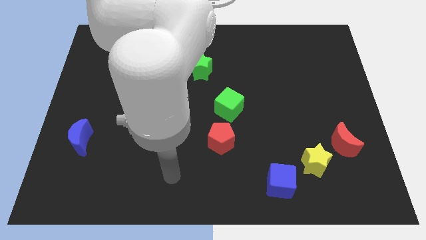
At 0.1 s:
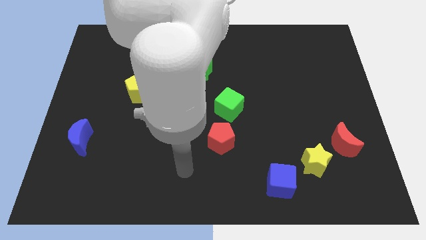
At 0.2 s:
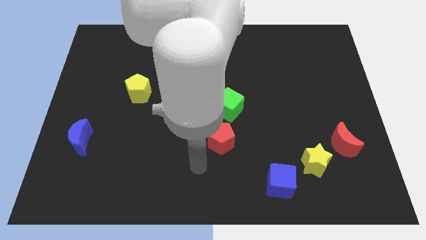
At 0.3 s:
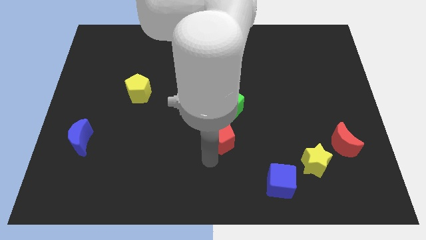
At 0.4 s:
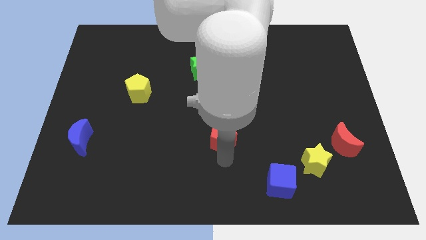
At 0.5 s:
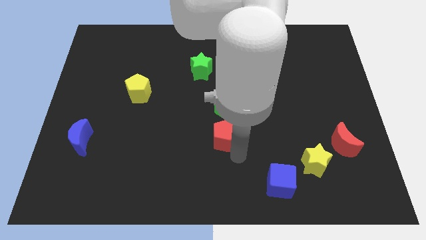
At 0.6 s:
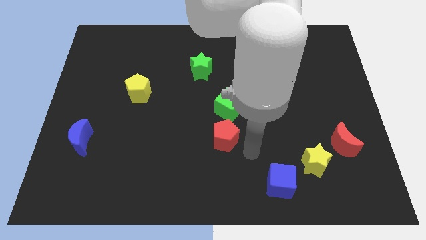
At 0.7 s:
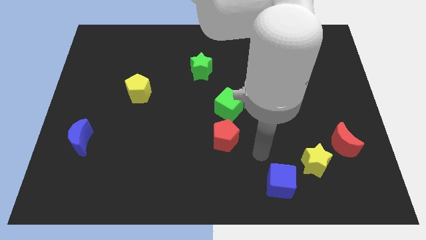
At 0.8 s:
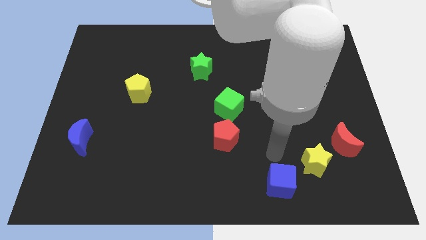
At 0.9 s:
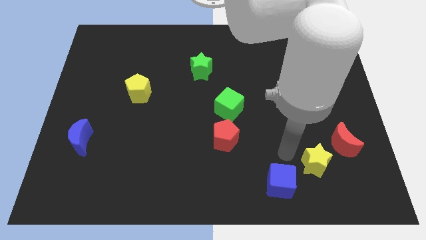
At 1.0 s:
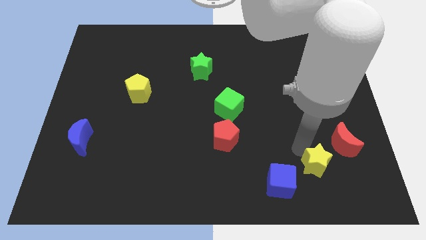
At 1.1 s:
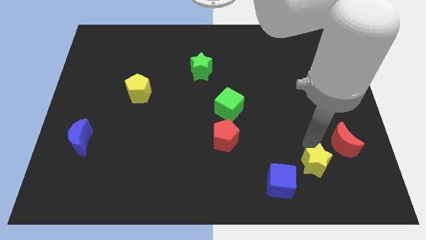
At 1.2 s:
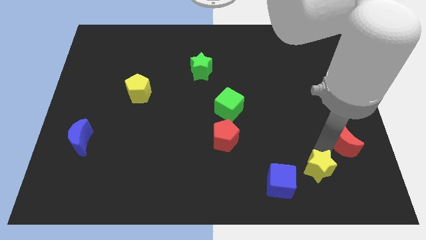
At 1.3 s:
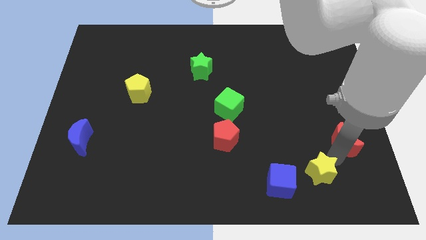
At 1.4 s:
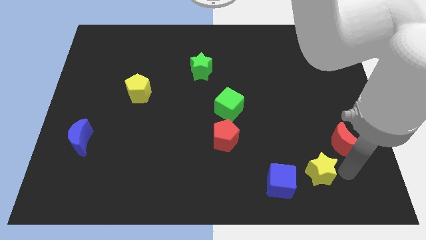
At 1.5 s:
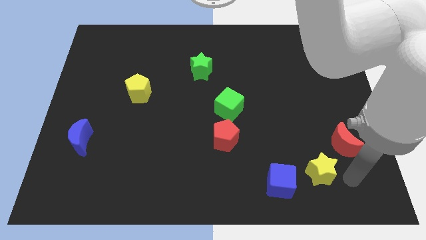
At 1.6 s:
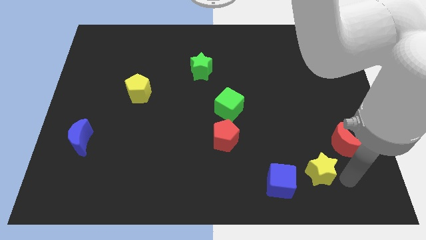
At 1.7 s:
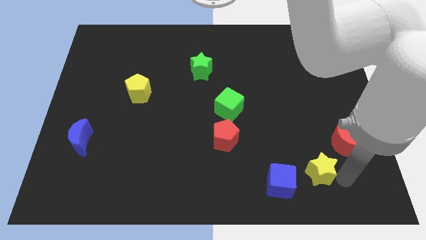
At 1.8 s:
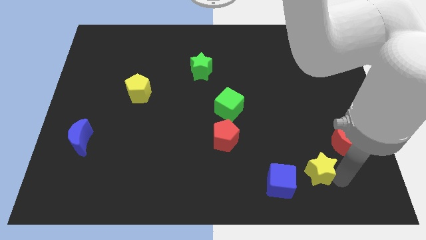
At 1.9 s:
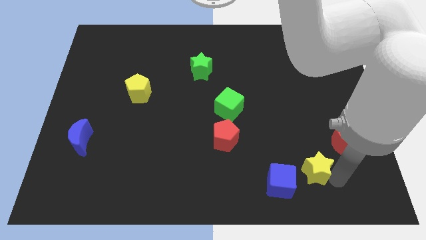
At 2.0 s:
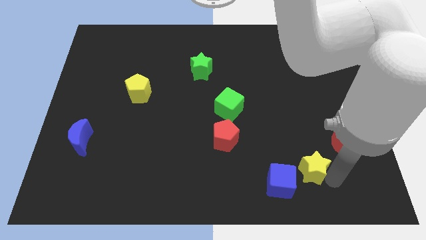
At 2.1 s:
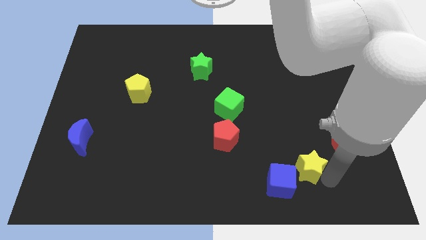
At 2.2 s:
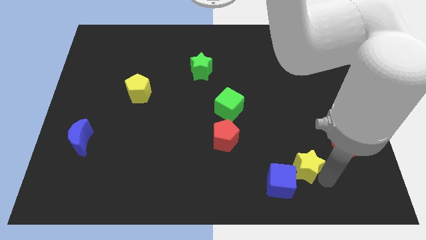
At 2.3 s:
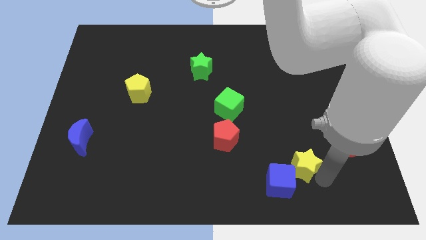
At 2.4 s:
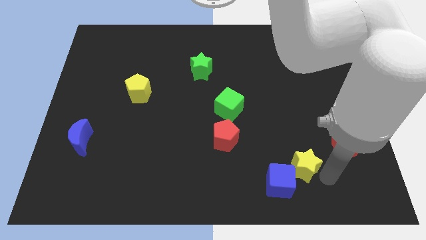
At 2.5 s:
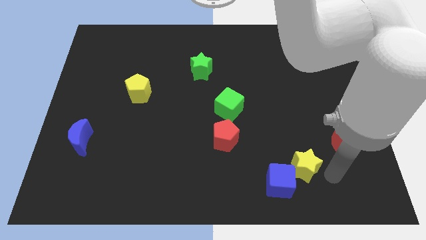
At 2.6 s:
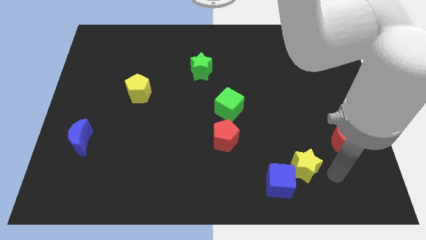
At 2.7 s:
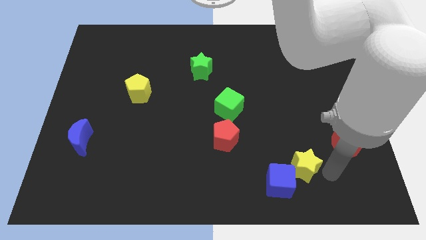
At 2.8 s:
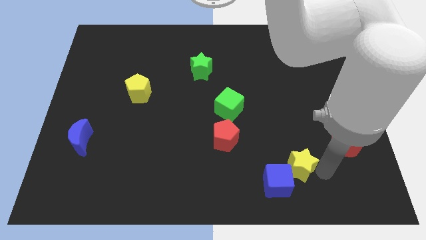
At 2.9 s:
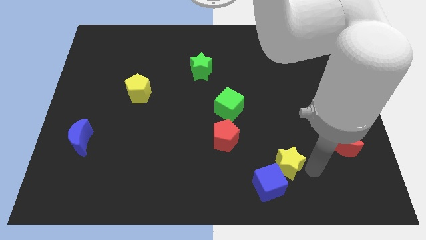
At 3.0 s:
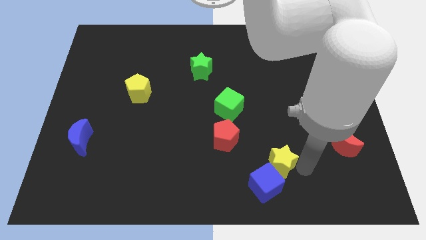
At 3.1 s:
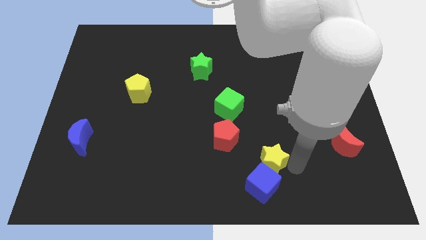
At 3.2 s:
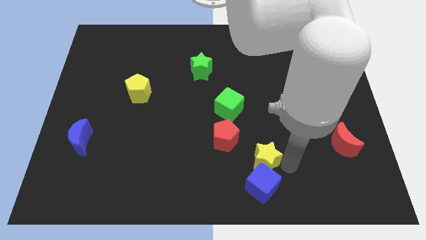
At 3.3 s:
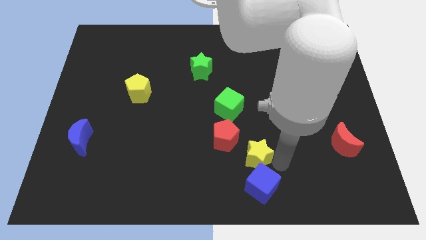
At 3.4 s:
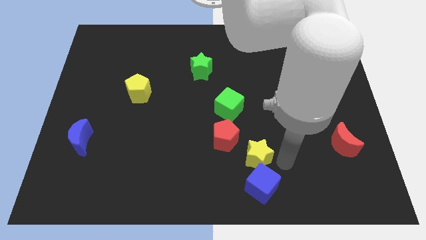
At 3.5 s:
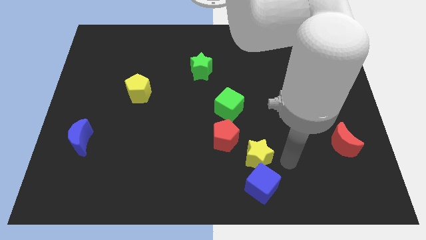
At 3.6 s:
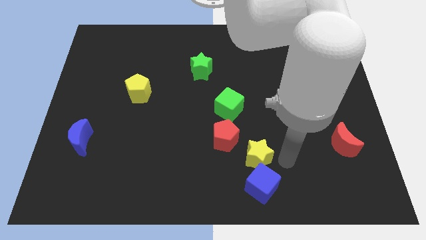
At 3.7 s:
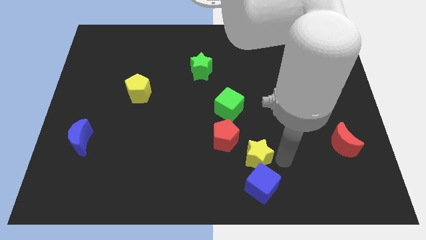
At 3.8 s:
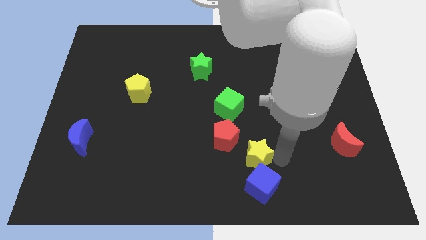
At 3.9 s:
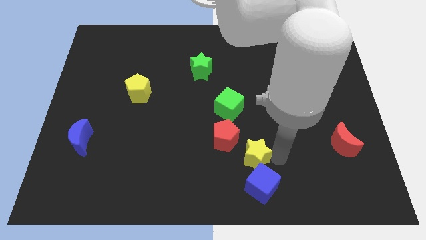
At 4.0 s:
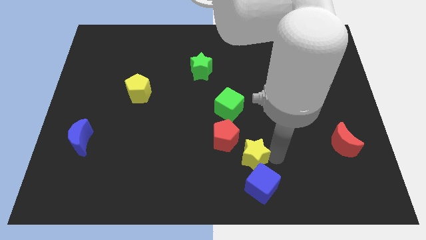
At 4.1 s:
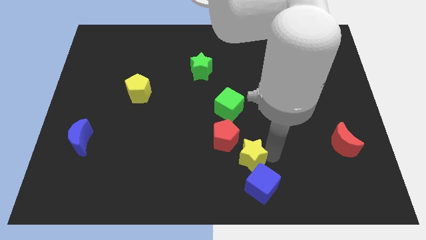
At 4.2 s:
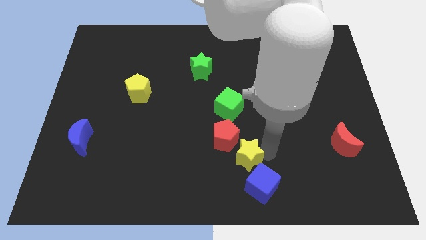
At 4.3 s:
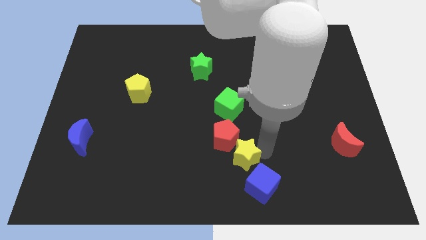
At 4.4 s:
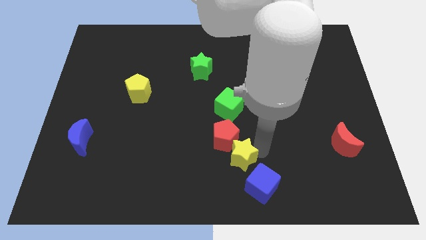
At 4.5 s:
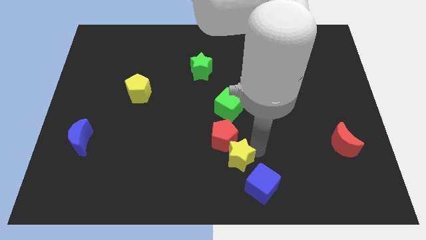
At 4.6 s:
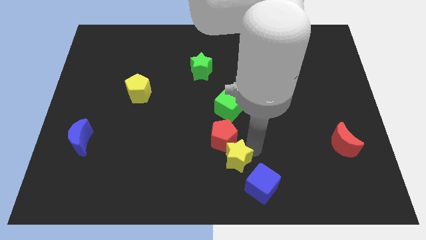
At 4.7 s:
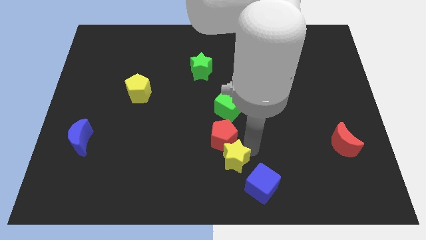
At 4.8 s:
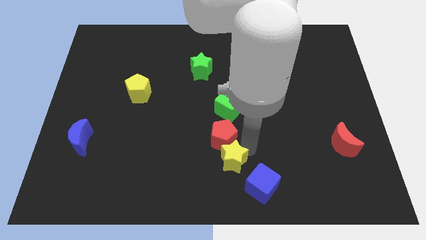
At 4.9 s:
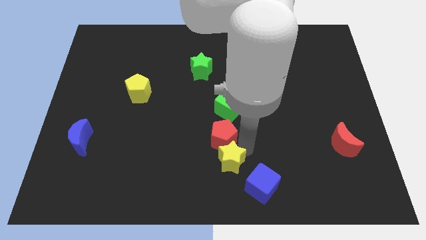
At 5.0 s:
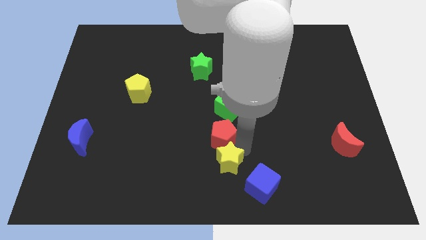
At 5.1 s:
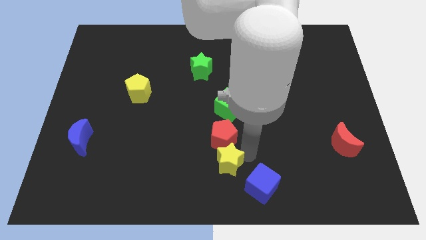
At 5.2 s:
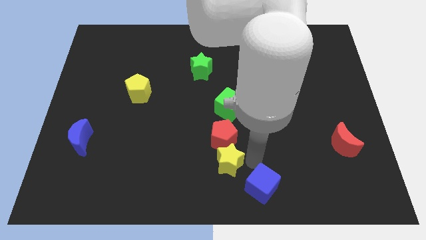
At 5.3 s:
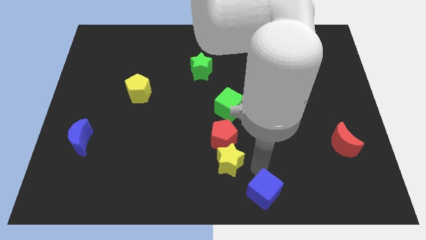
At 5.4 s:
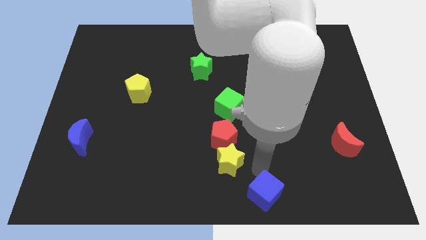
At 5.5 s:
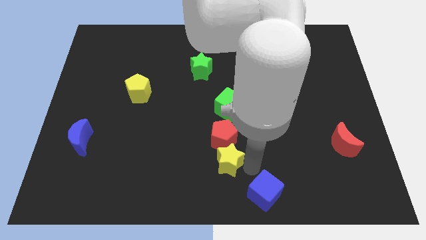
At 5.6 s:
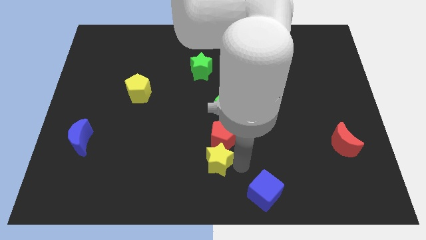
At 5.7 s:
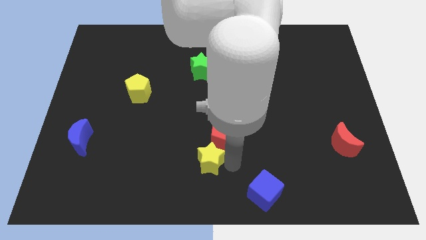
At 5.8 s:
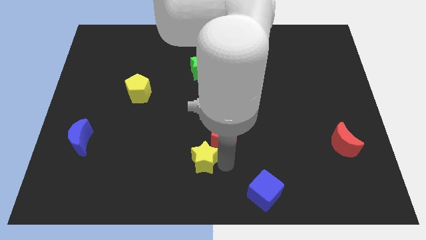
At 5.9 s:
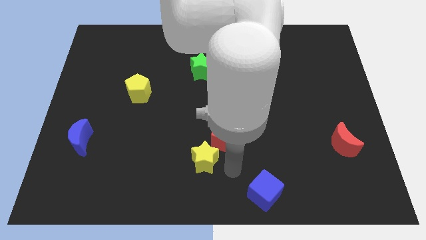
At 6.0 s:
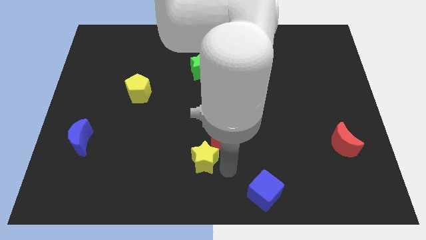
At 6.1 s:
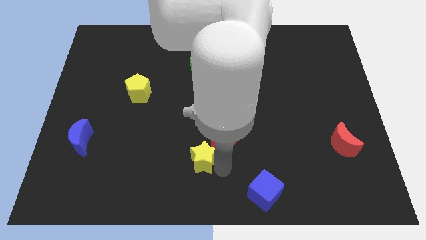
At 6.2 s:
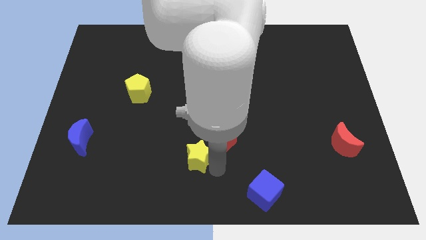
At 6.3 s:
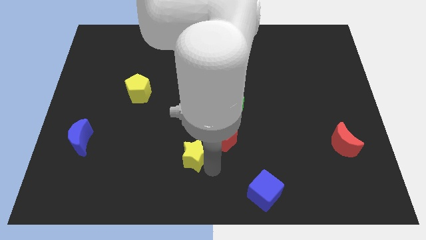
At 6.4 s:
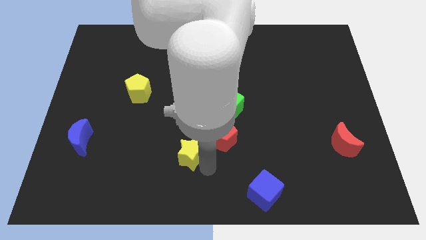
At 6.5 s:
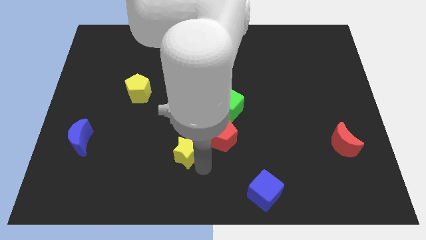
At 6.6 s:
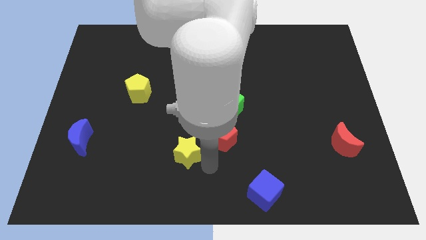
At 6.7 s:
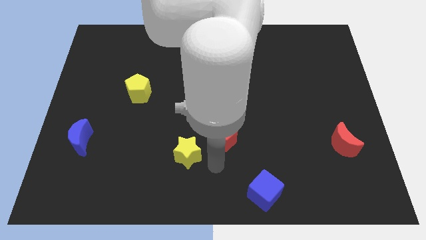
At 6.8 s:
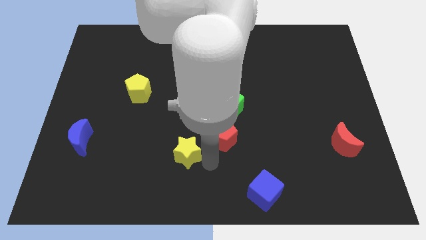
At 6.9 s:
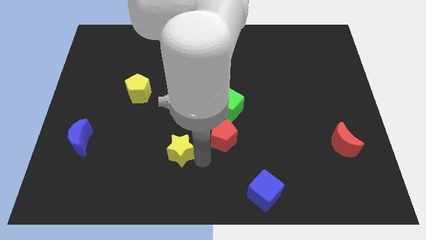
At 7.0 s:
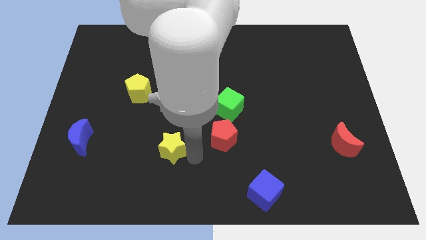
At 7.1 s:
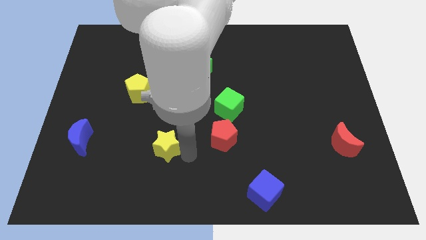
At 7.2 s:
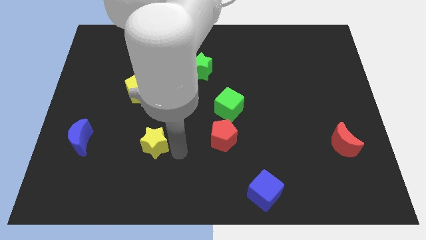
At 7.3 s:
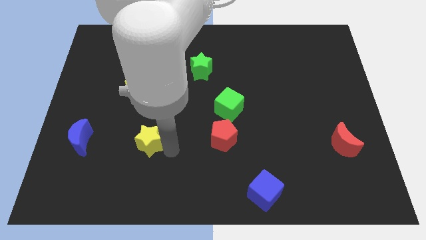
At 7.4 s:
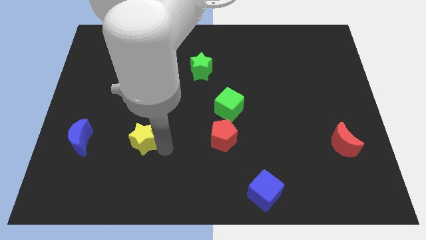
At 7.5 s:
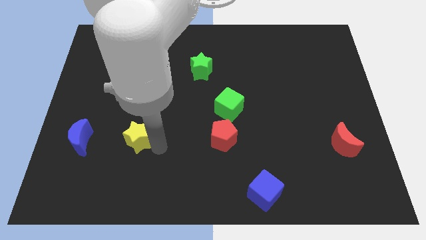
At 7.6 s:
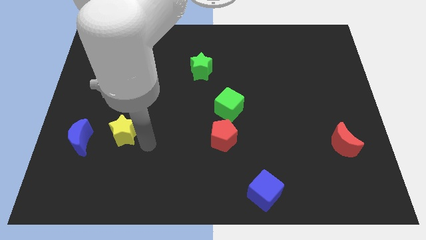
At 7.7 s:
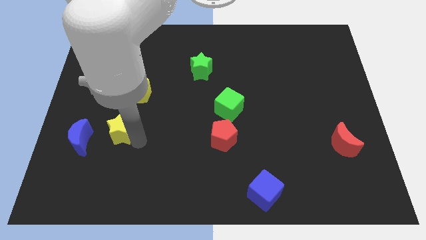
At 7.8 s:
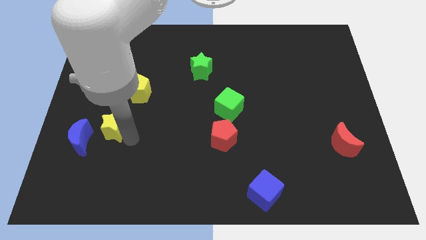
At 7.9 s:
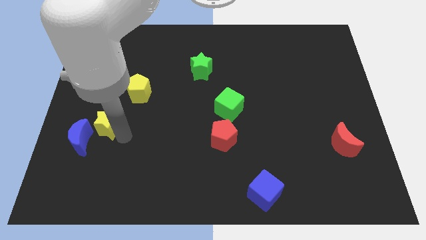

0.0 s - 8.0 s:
slide the yellow star to the bottom left side of the yellow pentagon
